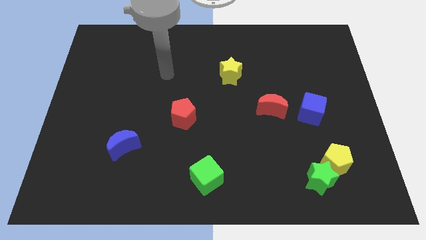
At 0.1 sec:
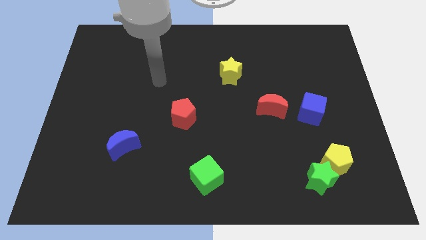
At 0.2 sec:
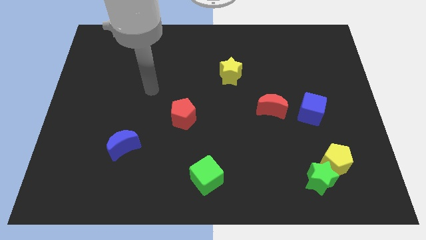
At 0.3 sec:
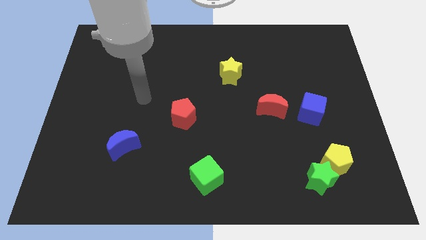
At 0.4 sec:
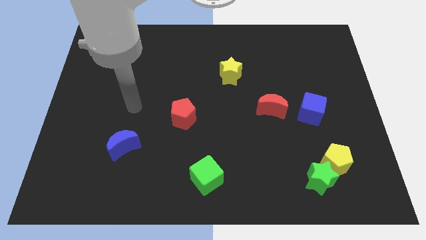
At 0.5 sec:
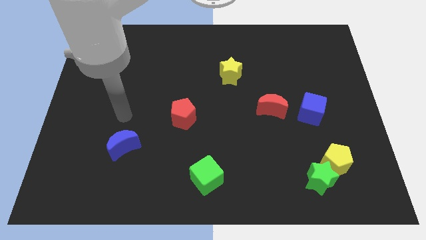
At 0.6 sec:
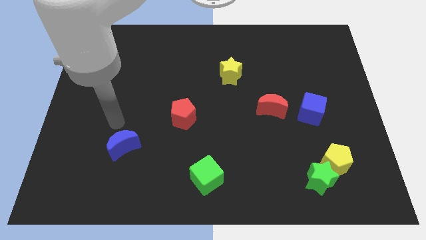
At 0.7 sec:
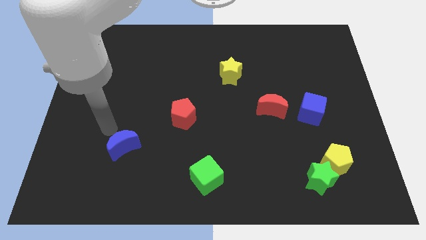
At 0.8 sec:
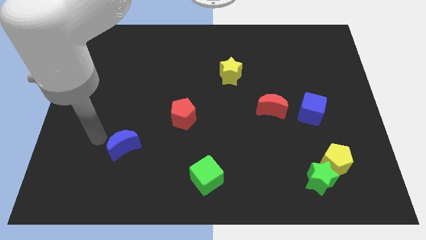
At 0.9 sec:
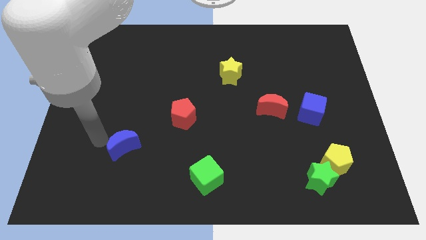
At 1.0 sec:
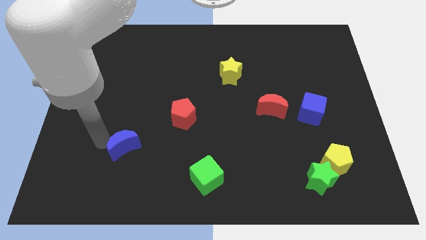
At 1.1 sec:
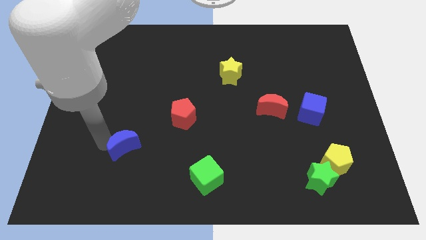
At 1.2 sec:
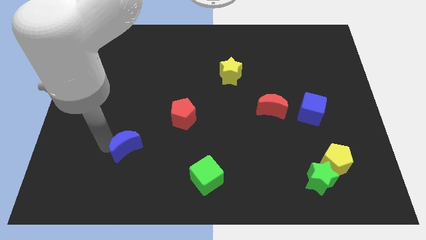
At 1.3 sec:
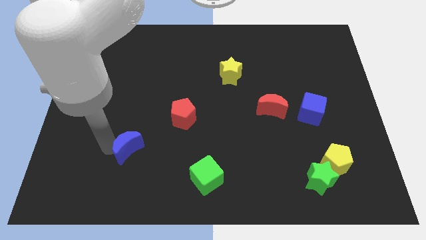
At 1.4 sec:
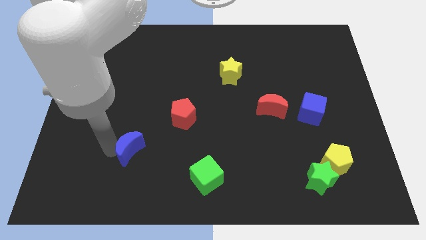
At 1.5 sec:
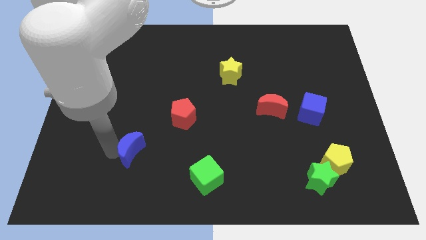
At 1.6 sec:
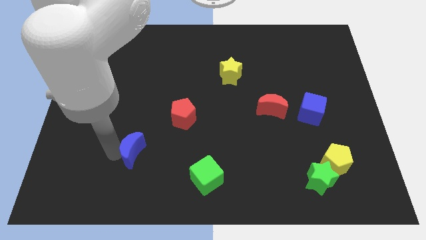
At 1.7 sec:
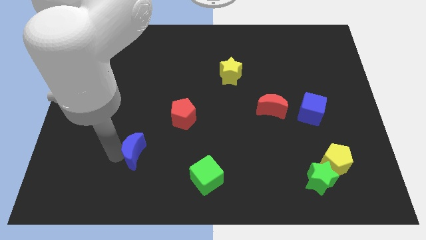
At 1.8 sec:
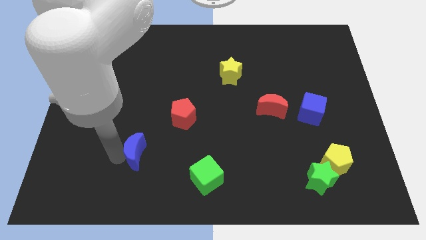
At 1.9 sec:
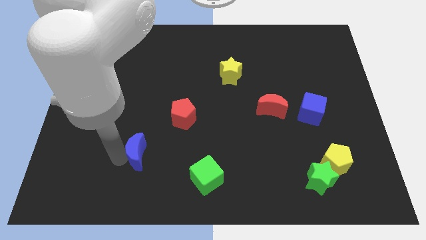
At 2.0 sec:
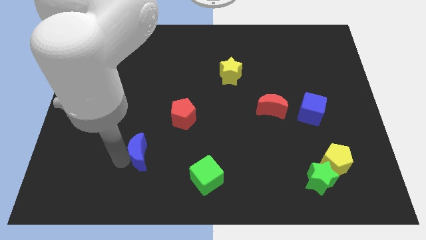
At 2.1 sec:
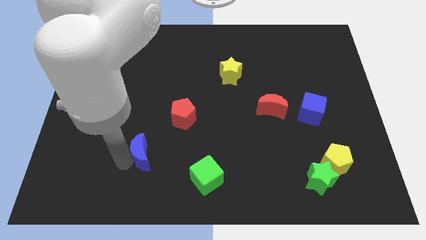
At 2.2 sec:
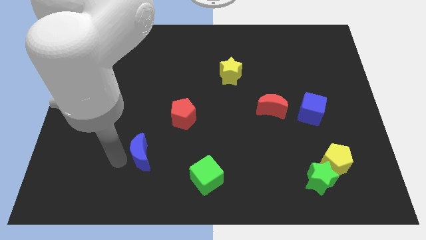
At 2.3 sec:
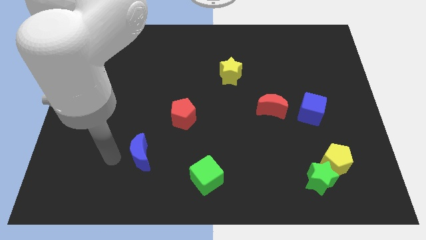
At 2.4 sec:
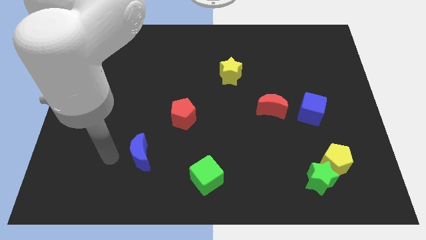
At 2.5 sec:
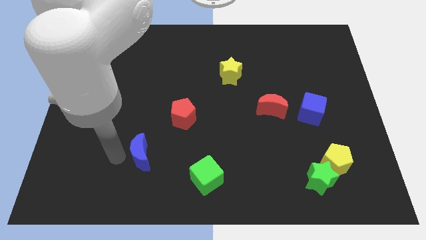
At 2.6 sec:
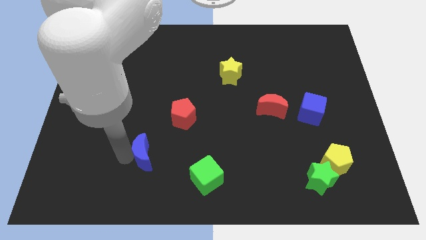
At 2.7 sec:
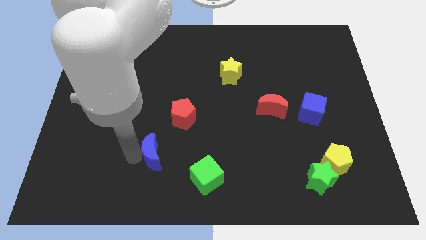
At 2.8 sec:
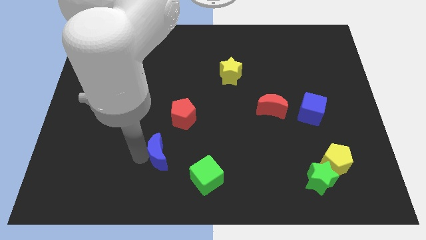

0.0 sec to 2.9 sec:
move the blue moon a little bit right

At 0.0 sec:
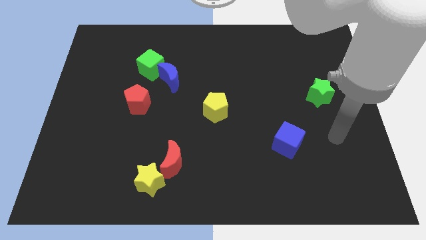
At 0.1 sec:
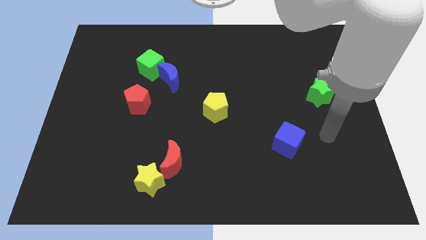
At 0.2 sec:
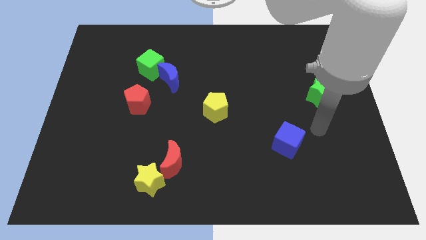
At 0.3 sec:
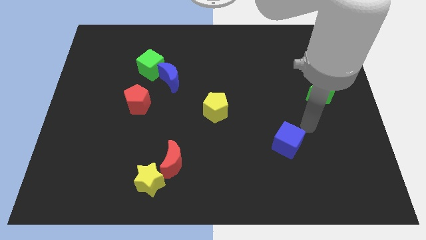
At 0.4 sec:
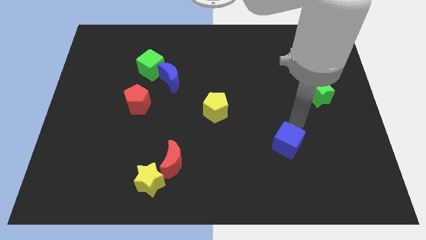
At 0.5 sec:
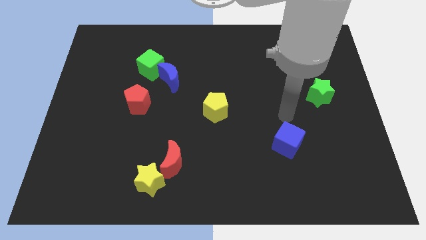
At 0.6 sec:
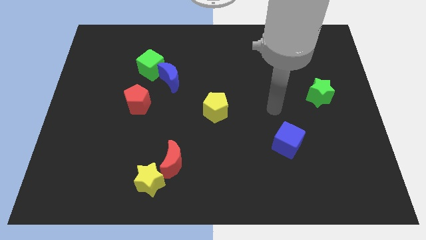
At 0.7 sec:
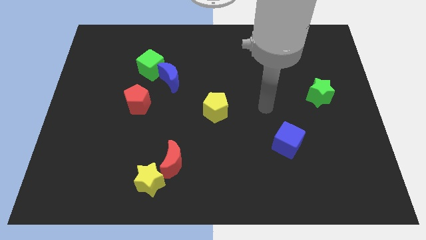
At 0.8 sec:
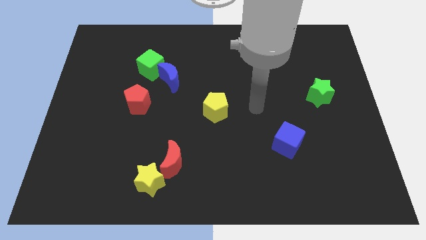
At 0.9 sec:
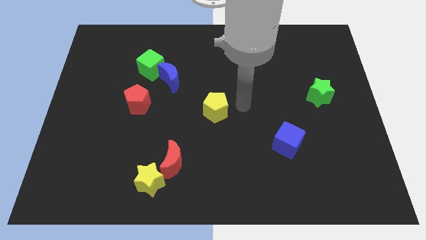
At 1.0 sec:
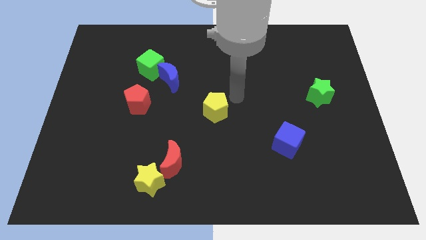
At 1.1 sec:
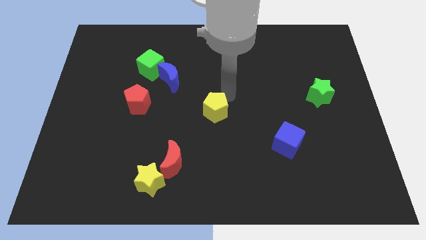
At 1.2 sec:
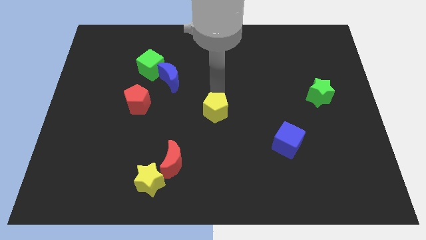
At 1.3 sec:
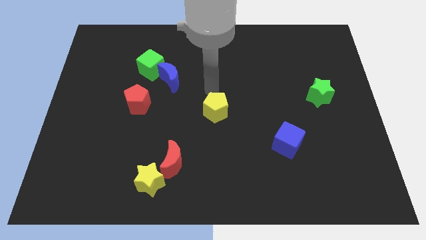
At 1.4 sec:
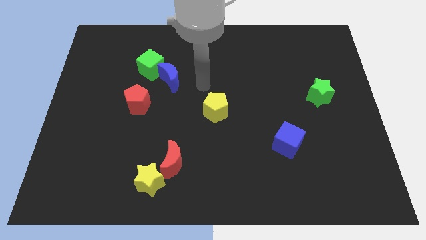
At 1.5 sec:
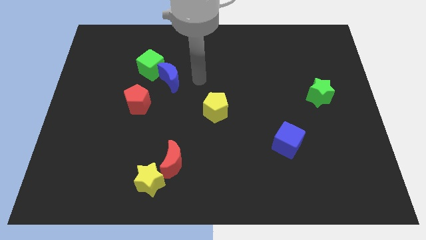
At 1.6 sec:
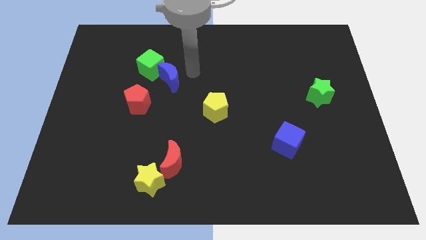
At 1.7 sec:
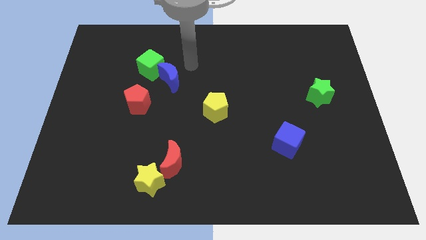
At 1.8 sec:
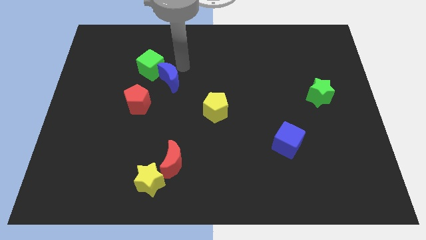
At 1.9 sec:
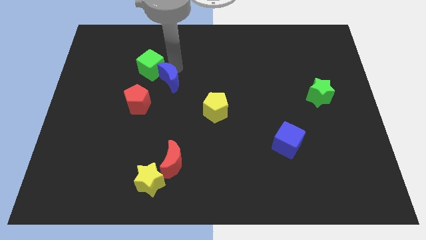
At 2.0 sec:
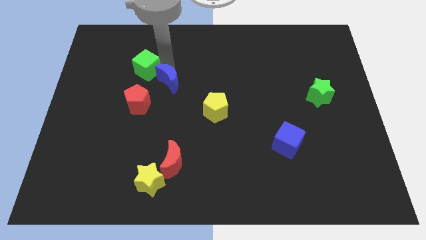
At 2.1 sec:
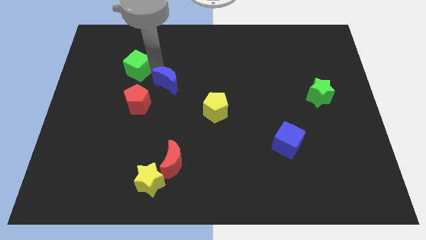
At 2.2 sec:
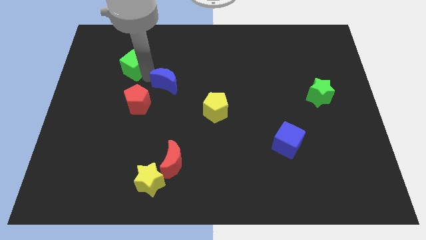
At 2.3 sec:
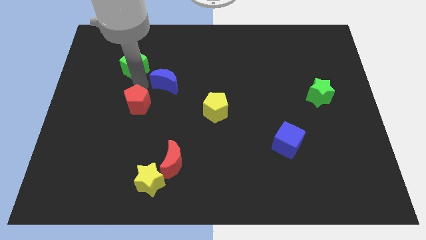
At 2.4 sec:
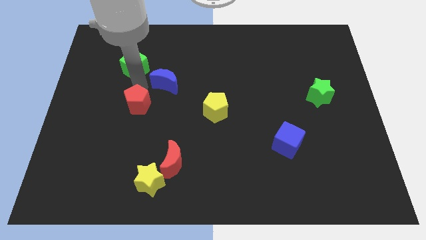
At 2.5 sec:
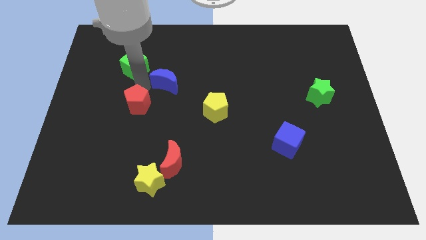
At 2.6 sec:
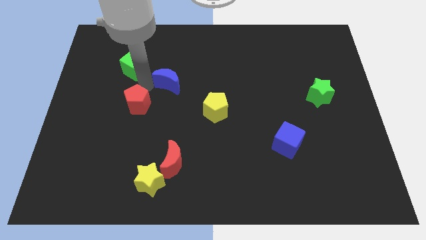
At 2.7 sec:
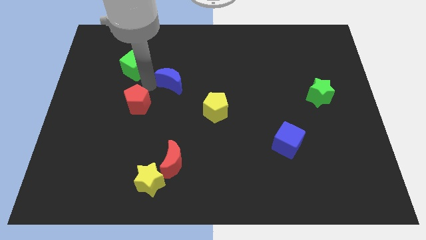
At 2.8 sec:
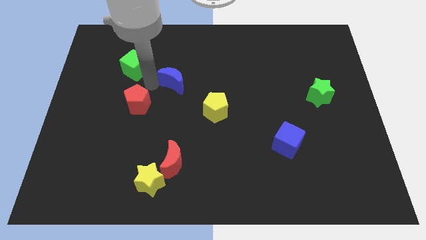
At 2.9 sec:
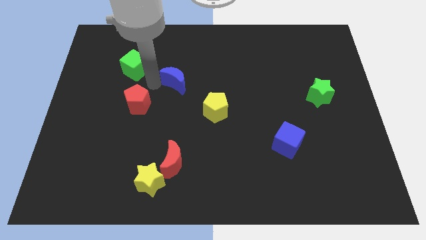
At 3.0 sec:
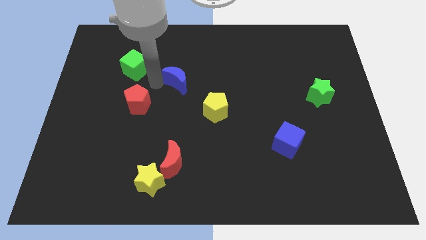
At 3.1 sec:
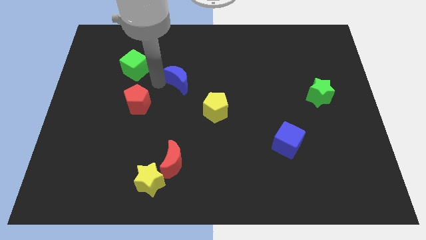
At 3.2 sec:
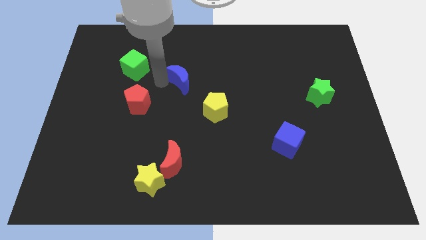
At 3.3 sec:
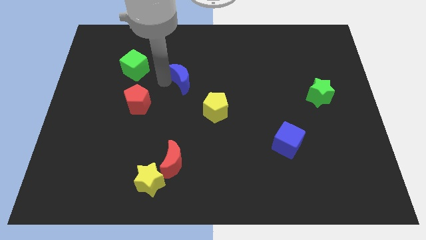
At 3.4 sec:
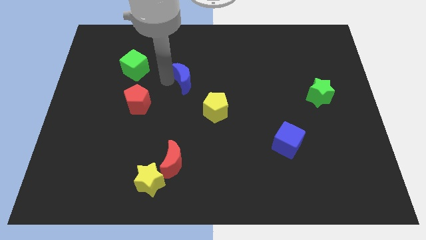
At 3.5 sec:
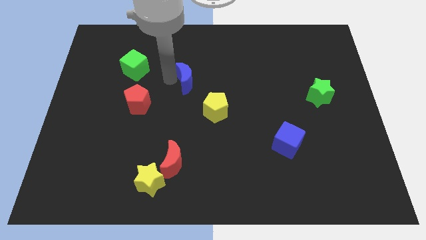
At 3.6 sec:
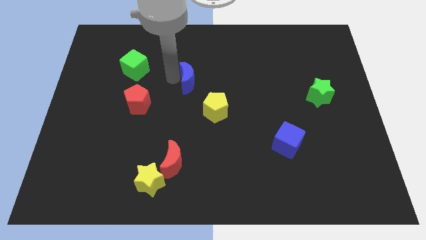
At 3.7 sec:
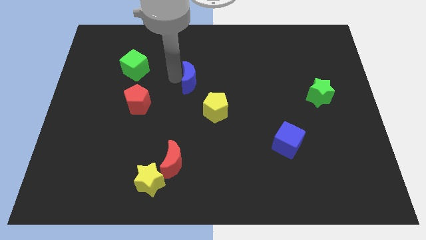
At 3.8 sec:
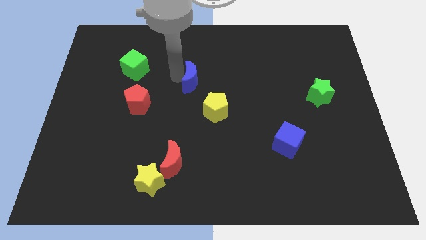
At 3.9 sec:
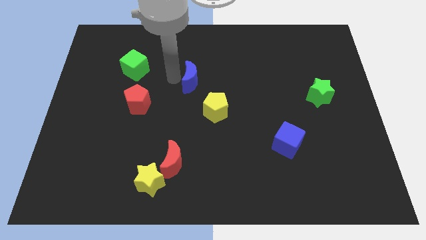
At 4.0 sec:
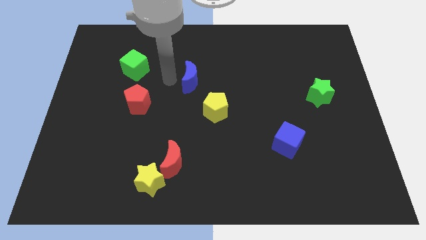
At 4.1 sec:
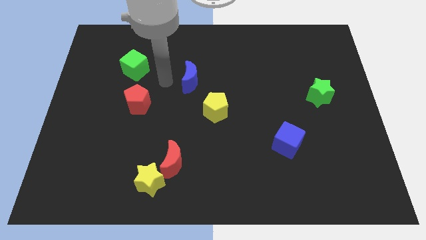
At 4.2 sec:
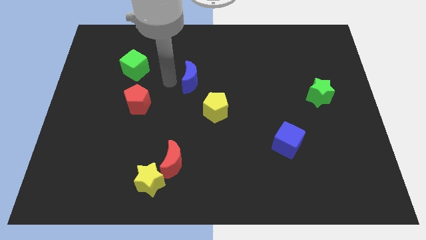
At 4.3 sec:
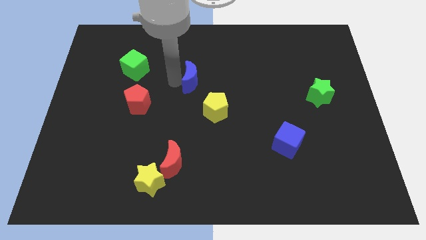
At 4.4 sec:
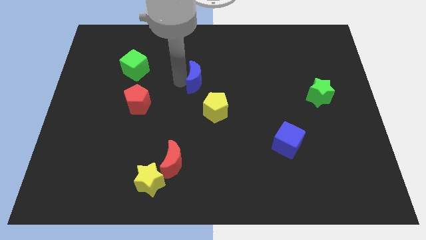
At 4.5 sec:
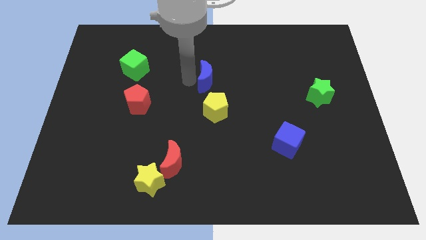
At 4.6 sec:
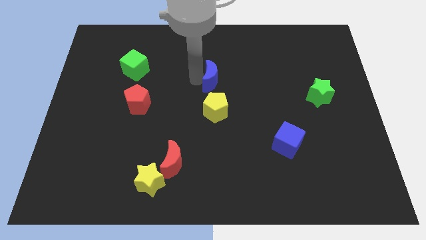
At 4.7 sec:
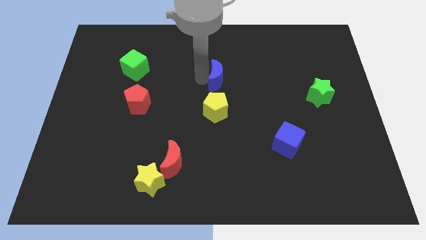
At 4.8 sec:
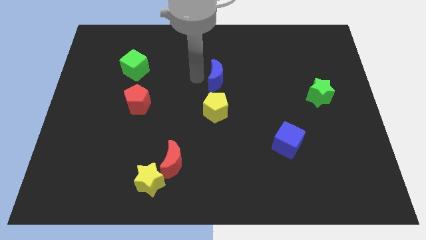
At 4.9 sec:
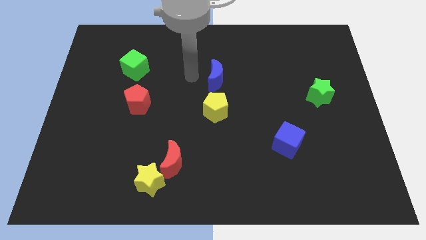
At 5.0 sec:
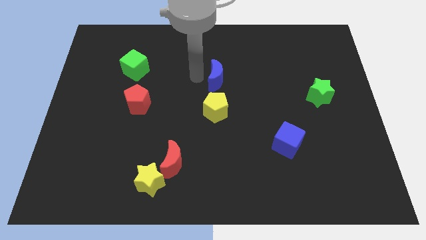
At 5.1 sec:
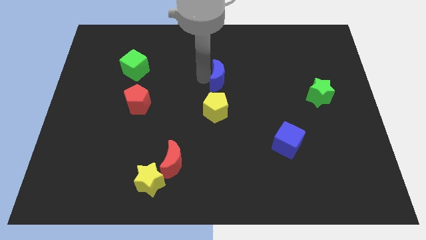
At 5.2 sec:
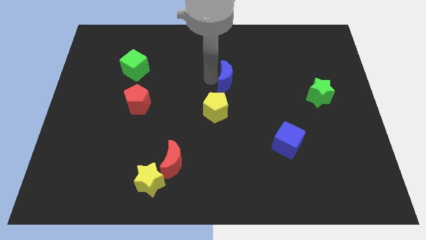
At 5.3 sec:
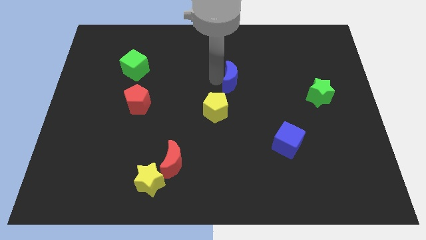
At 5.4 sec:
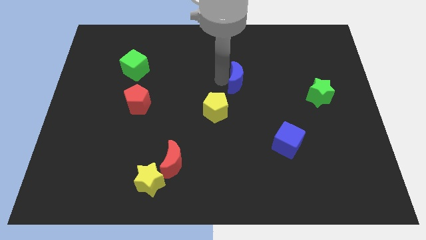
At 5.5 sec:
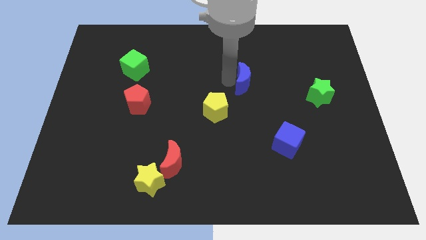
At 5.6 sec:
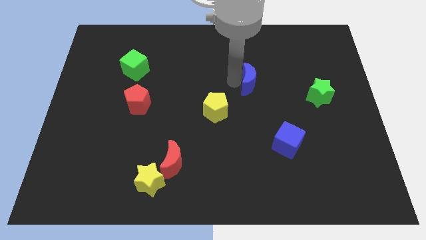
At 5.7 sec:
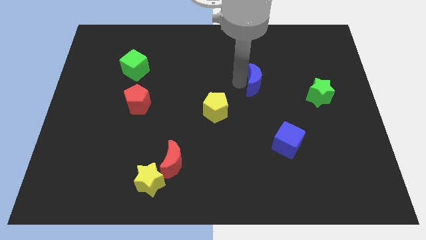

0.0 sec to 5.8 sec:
move the blue moon right
